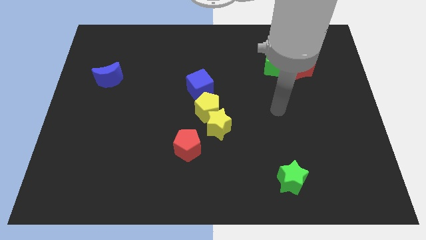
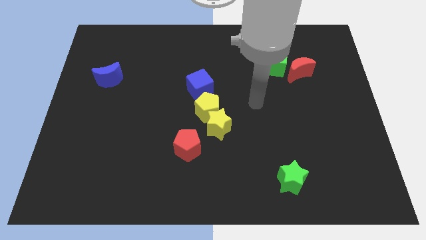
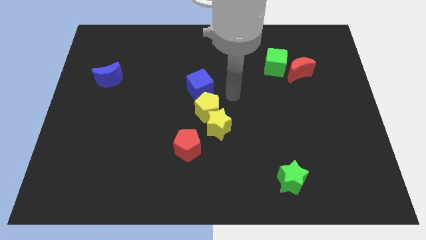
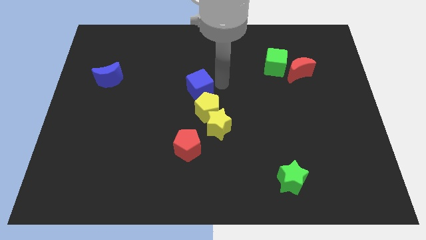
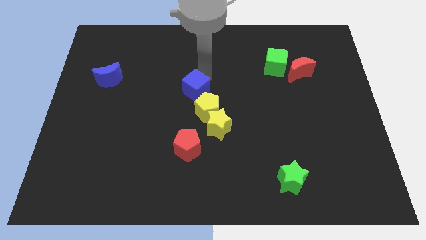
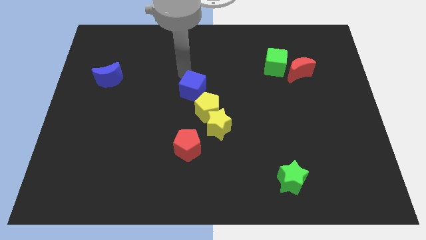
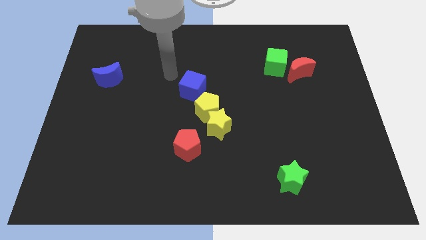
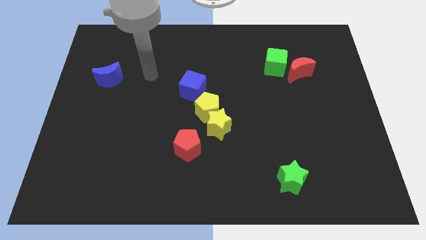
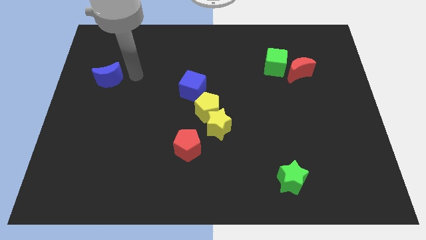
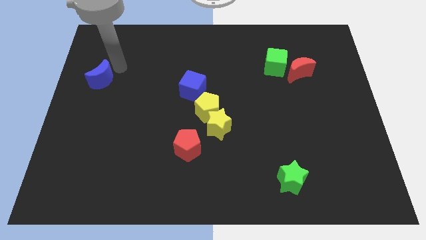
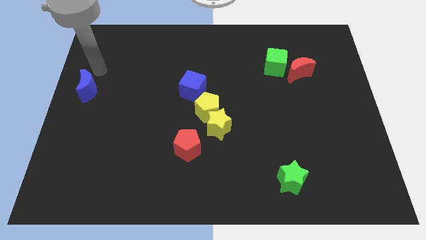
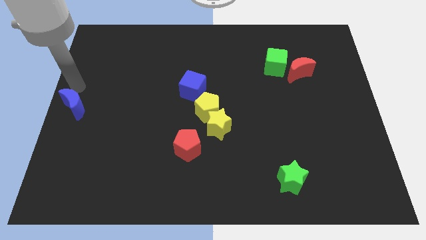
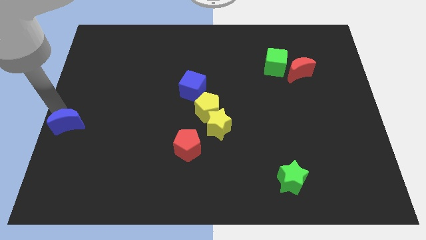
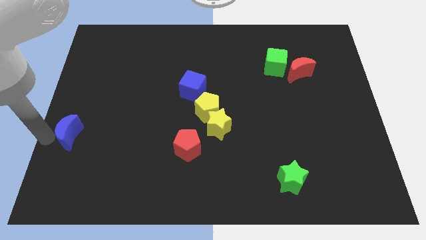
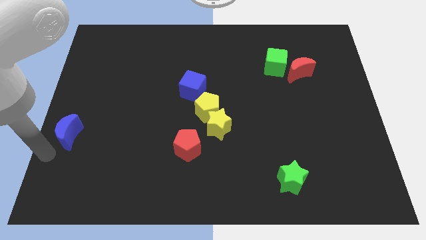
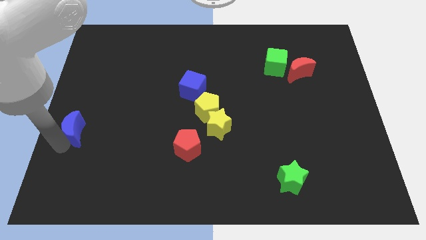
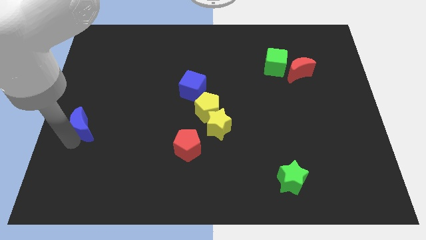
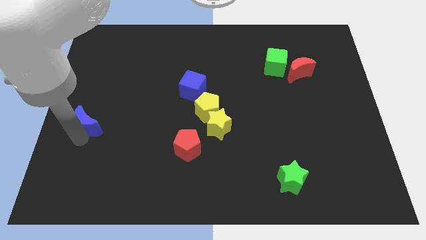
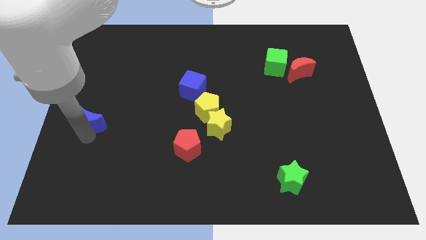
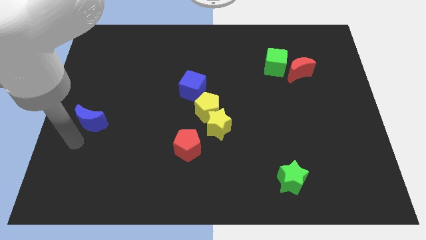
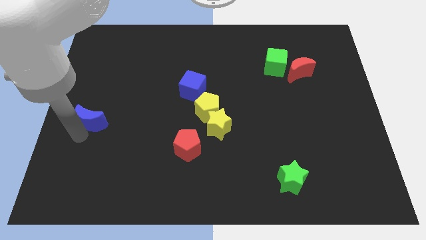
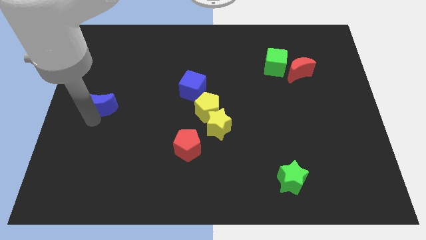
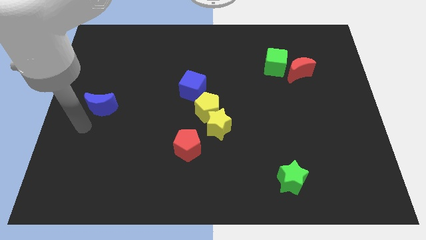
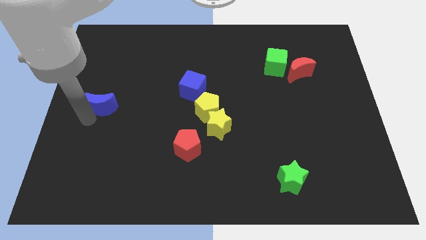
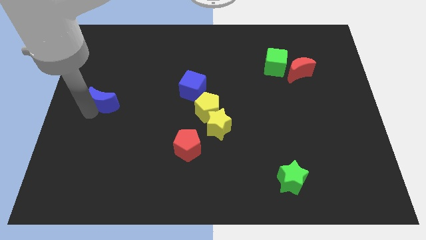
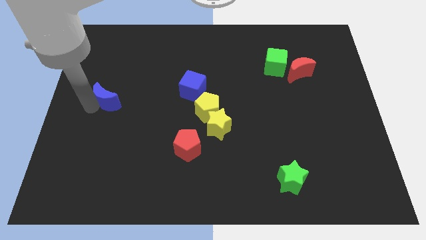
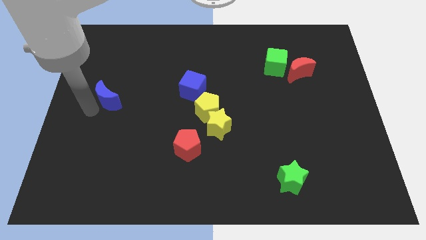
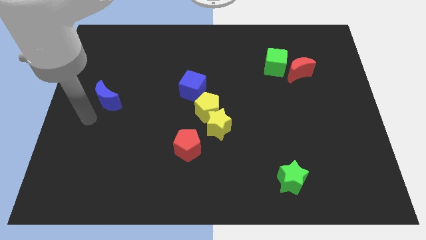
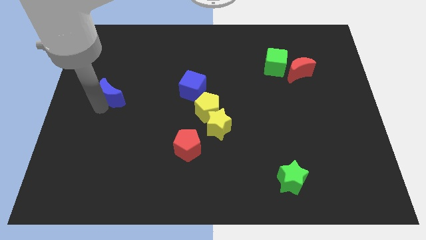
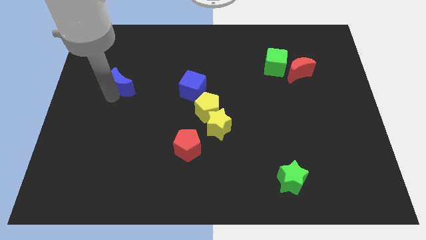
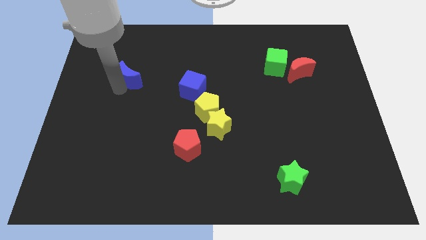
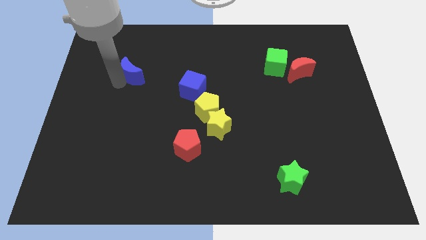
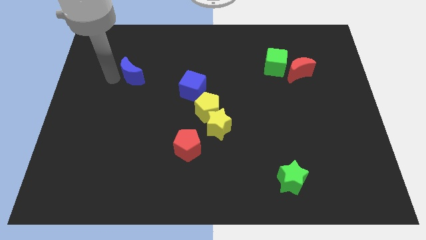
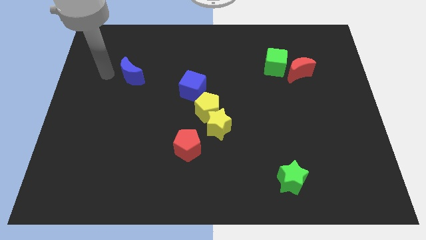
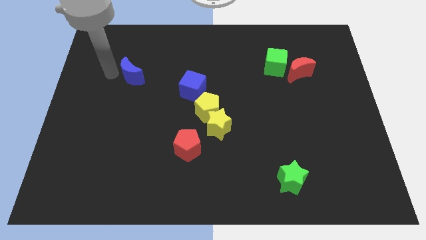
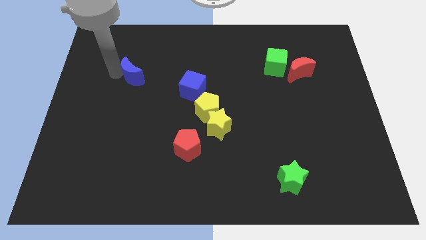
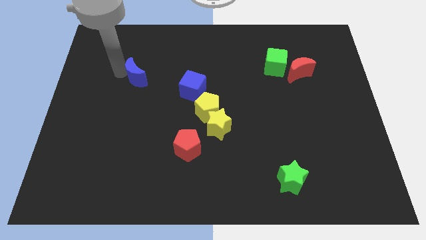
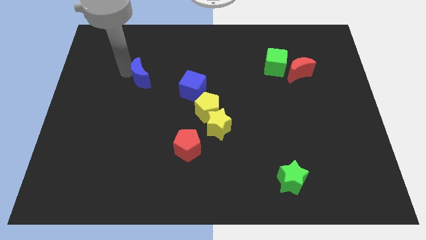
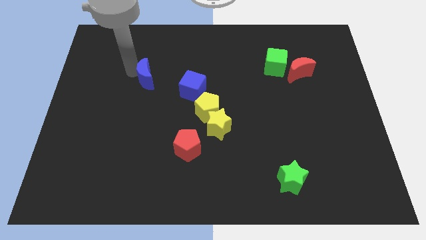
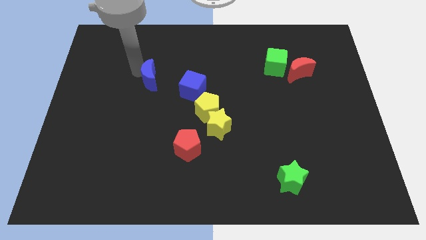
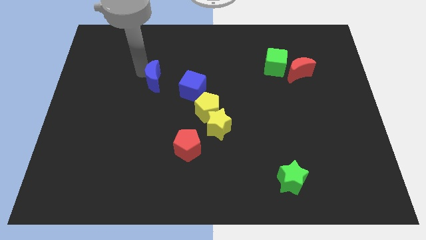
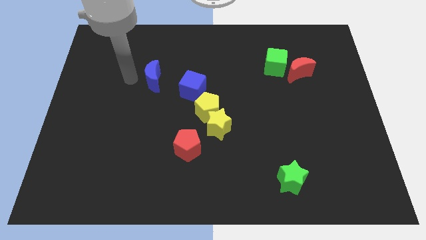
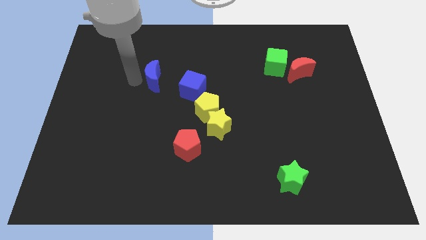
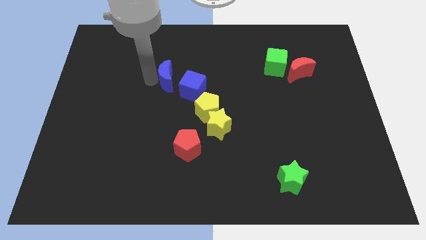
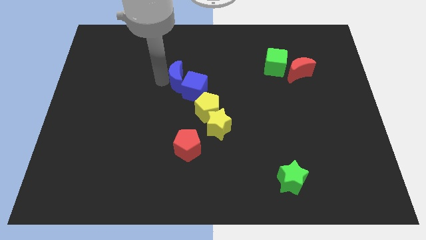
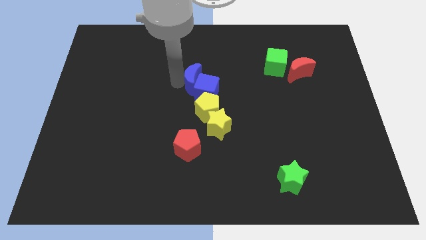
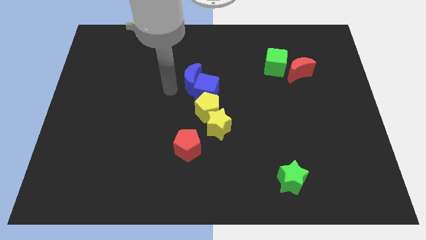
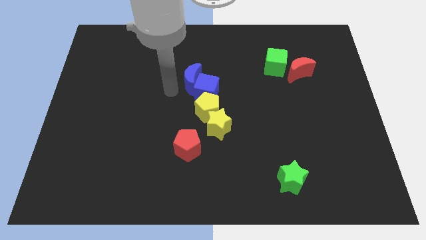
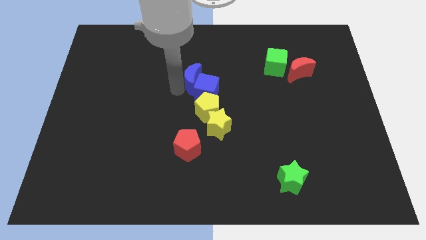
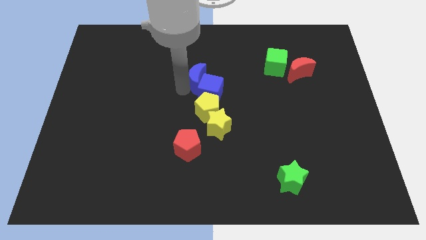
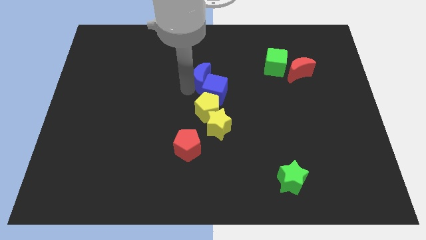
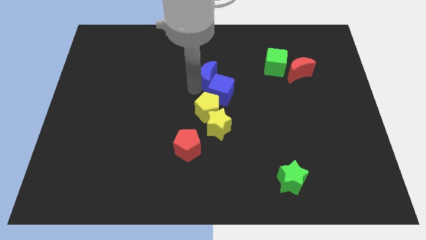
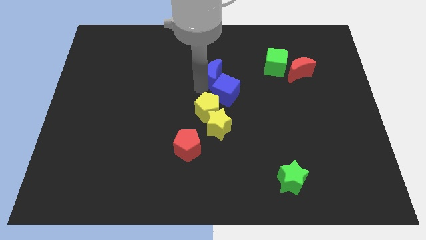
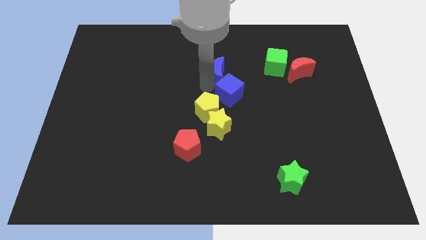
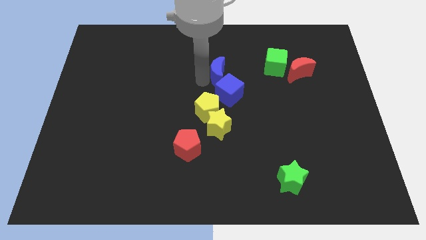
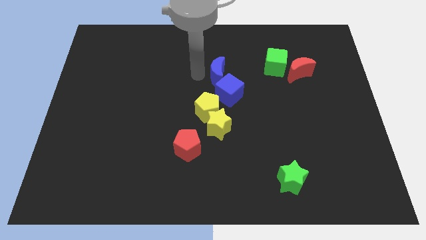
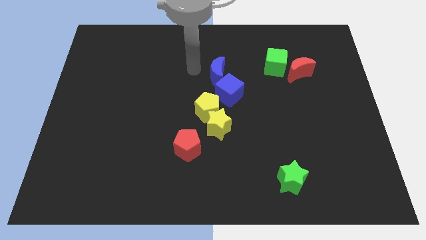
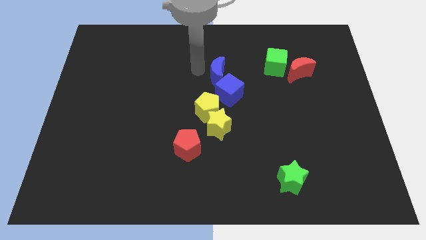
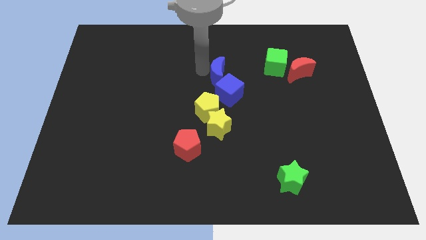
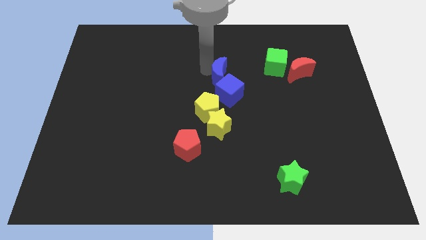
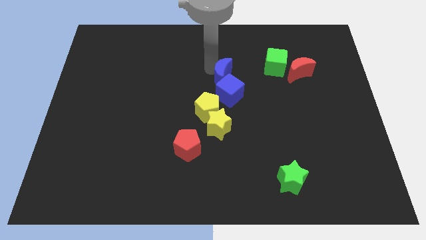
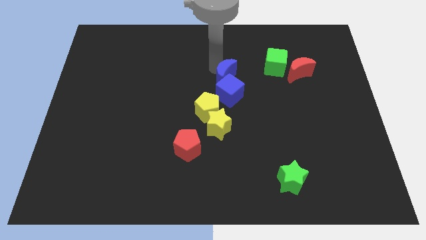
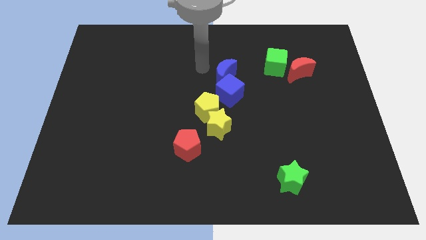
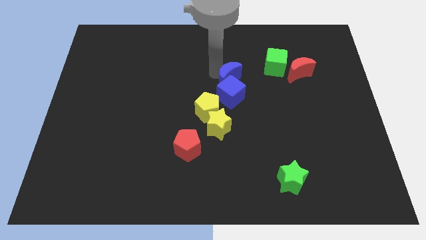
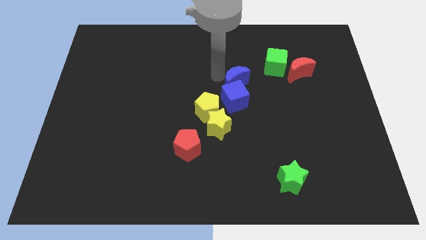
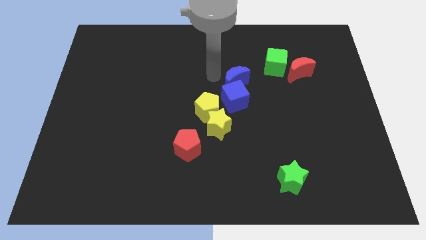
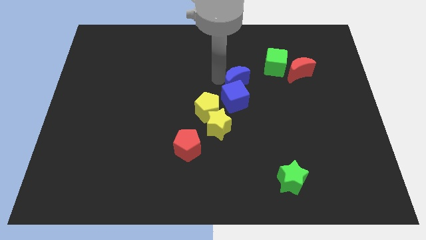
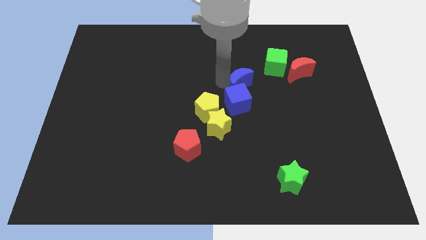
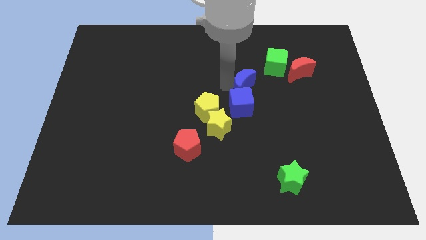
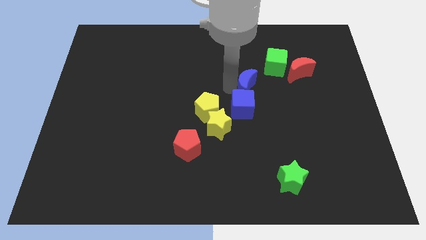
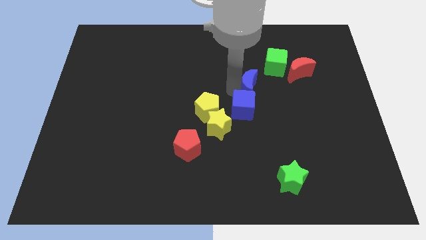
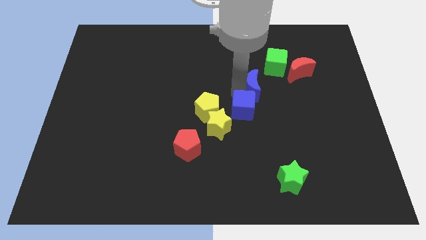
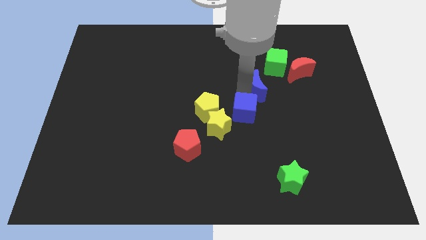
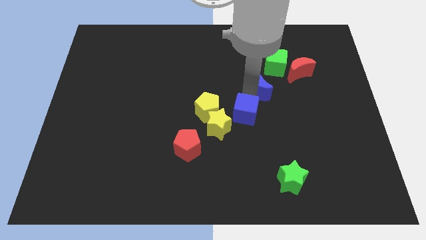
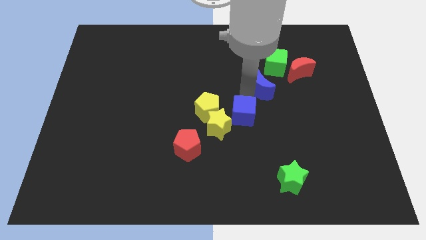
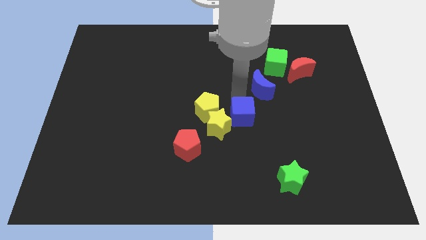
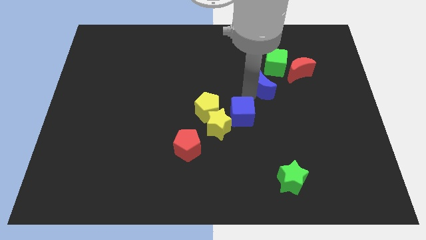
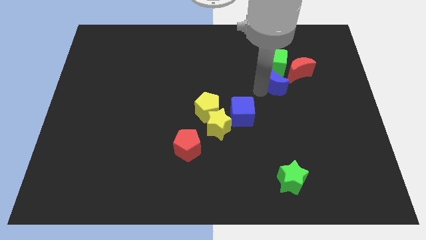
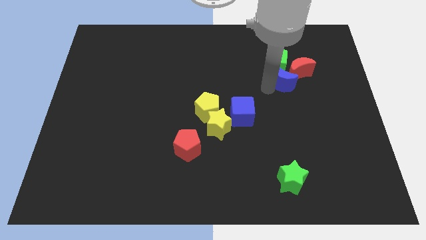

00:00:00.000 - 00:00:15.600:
move the blue moon towards the red moon
